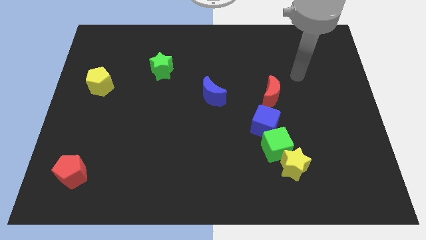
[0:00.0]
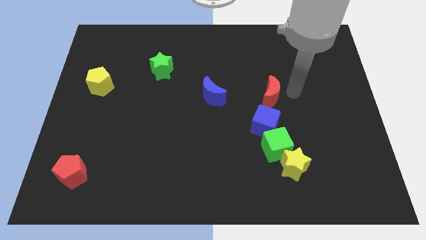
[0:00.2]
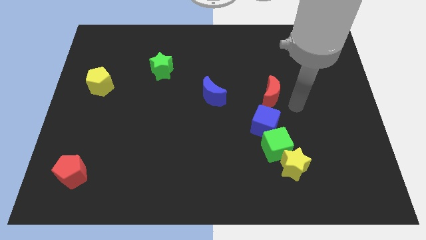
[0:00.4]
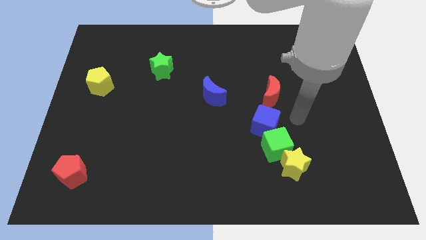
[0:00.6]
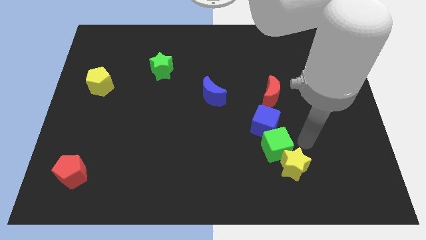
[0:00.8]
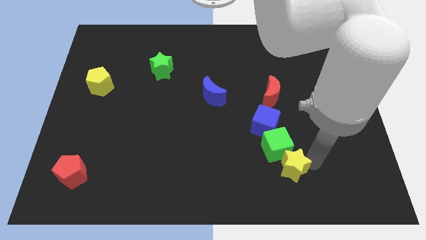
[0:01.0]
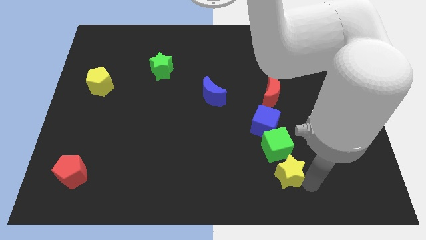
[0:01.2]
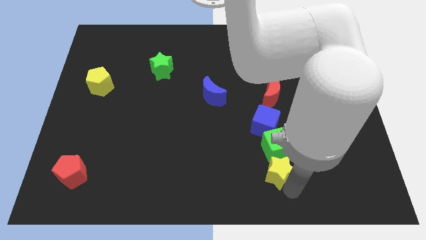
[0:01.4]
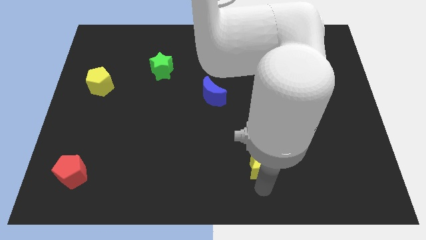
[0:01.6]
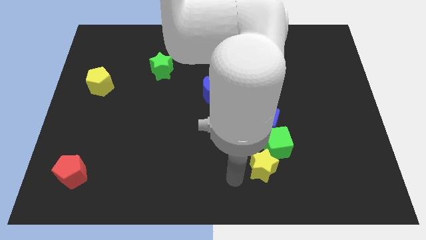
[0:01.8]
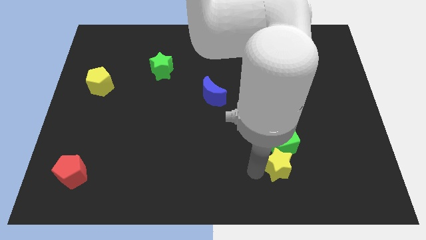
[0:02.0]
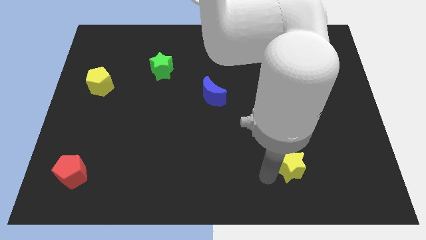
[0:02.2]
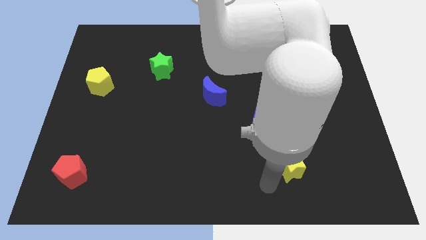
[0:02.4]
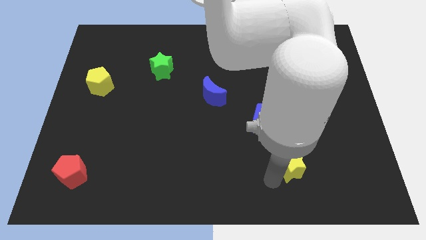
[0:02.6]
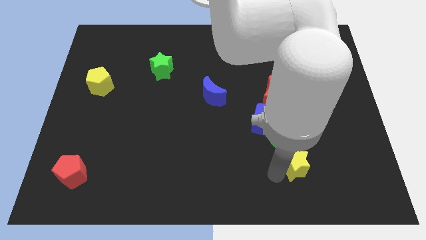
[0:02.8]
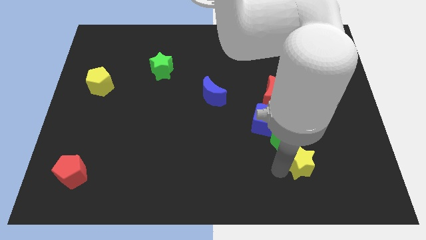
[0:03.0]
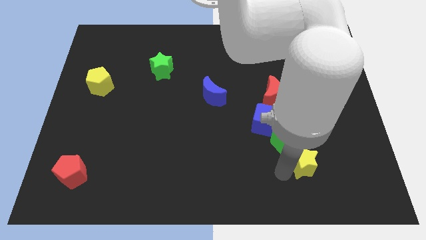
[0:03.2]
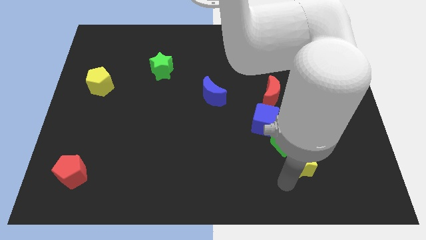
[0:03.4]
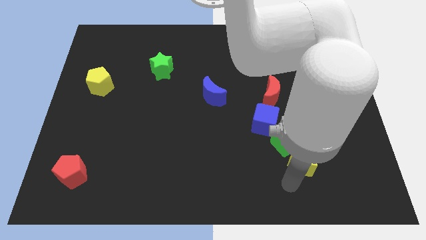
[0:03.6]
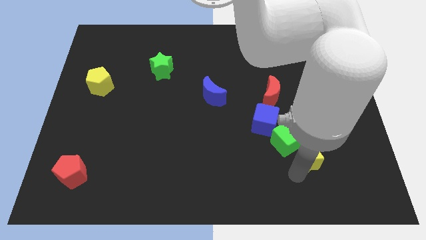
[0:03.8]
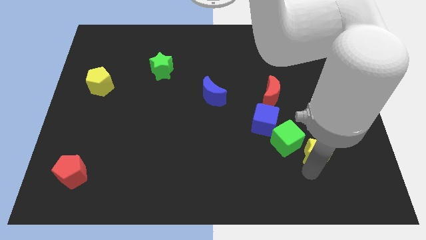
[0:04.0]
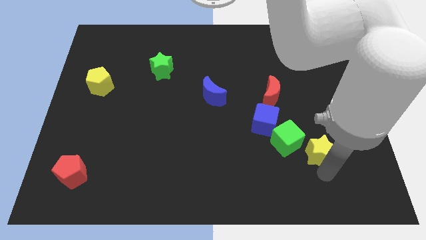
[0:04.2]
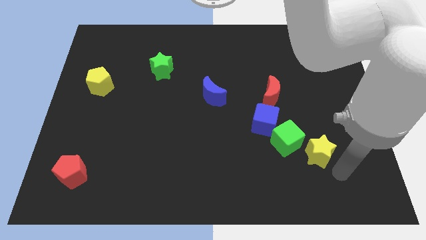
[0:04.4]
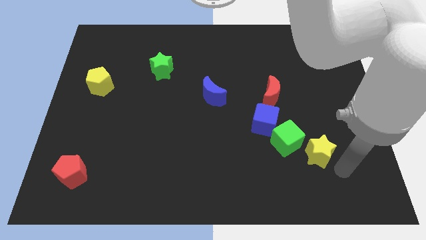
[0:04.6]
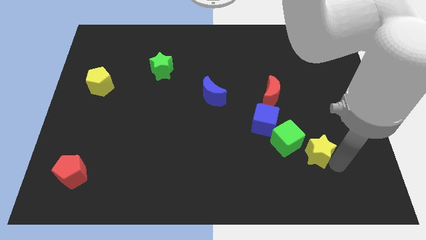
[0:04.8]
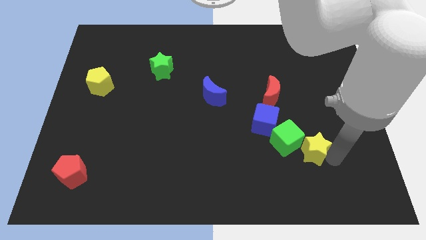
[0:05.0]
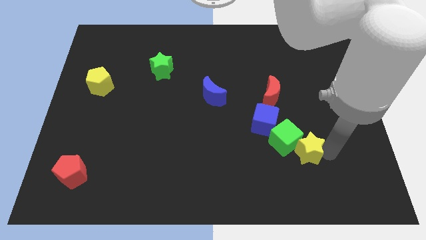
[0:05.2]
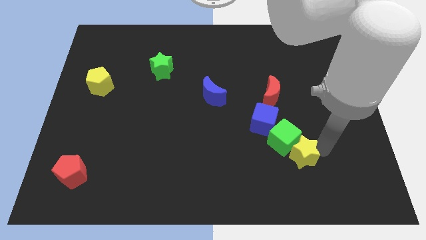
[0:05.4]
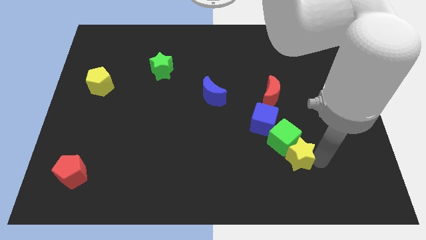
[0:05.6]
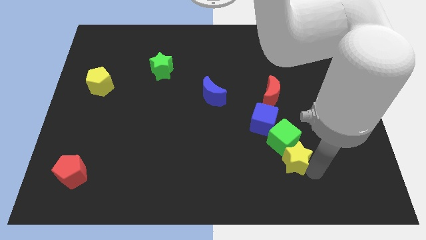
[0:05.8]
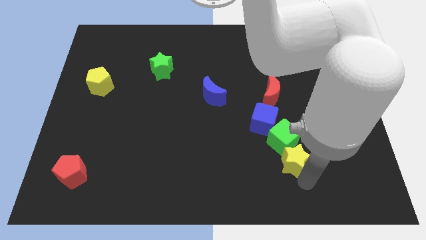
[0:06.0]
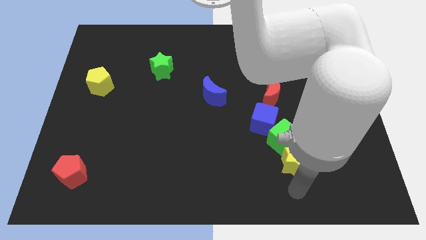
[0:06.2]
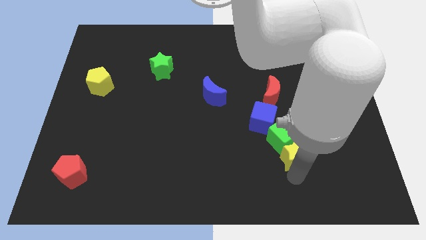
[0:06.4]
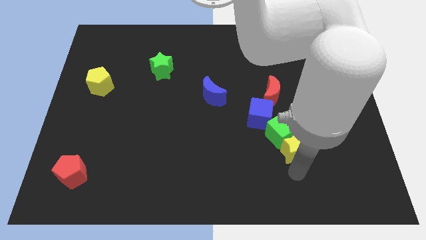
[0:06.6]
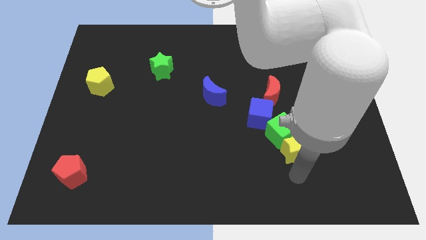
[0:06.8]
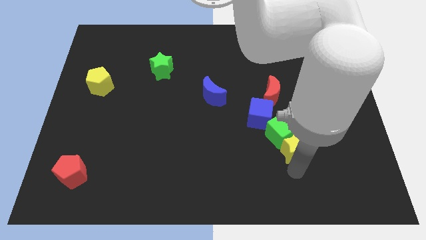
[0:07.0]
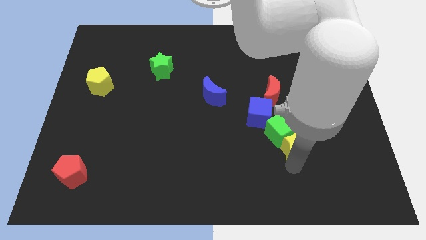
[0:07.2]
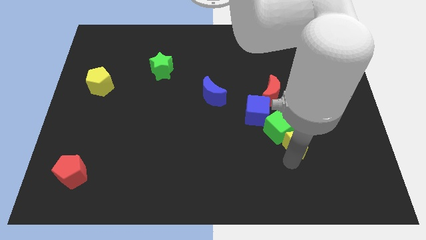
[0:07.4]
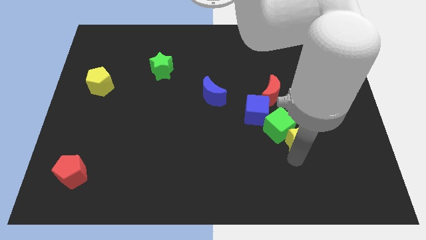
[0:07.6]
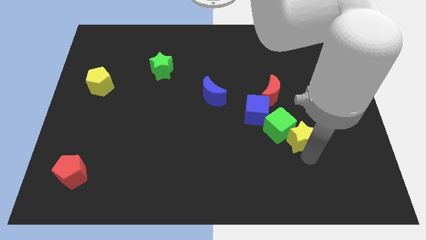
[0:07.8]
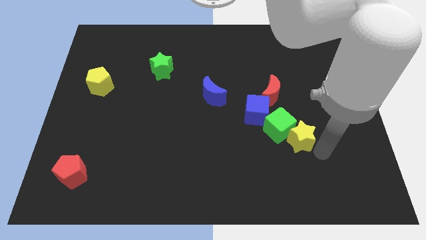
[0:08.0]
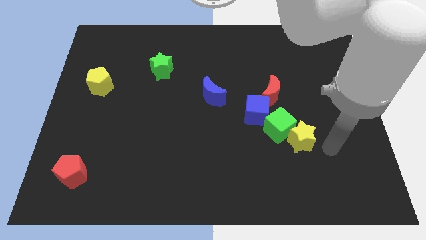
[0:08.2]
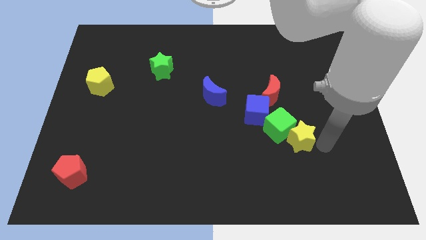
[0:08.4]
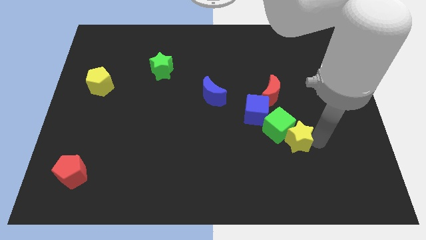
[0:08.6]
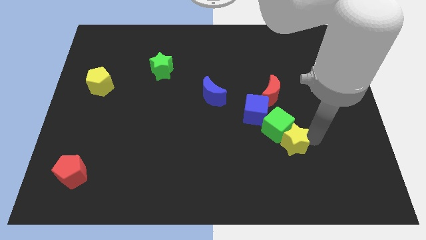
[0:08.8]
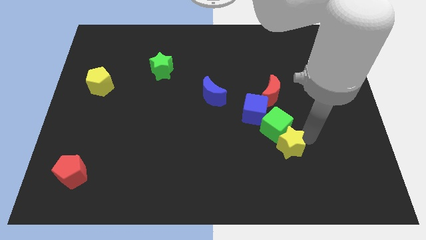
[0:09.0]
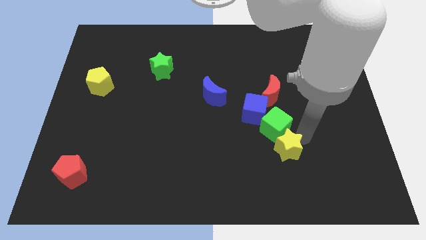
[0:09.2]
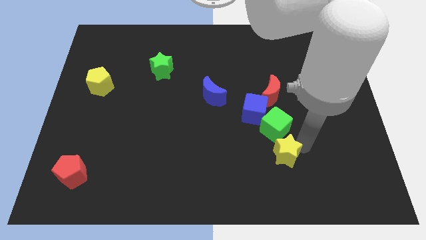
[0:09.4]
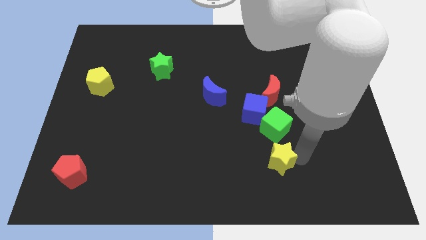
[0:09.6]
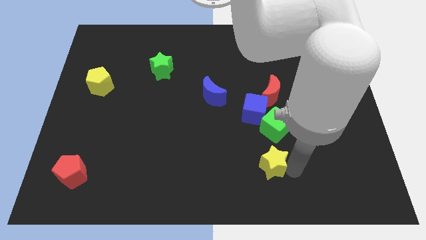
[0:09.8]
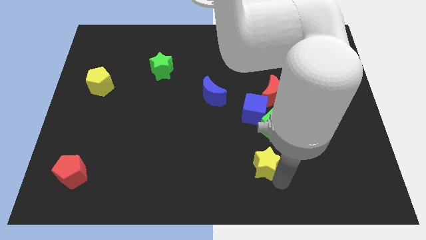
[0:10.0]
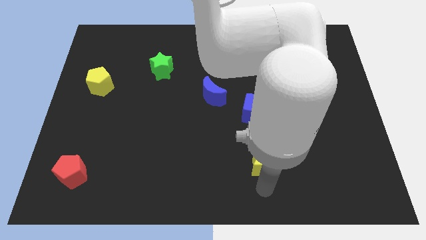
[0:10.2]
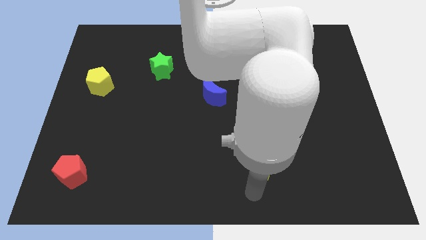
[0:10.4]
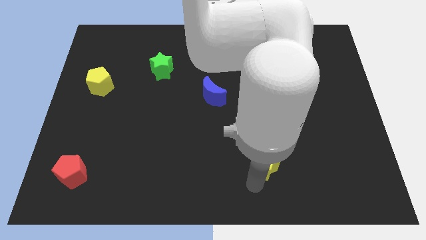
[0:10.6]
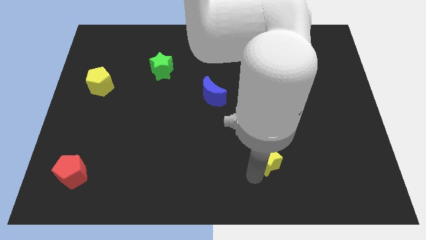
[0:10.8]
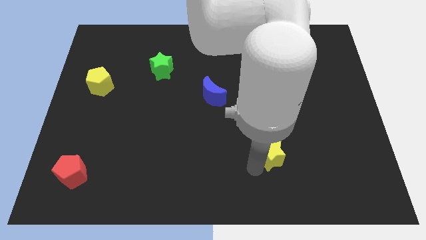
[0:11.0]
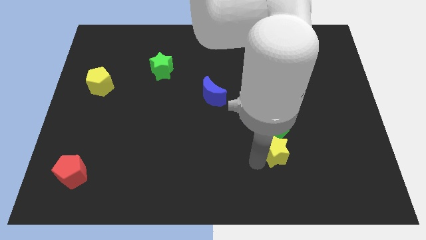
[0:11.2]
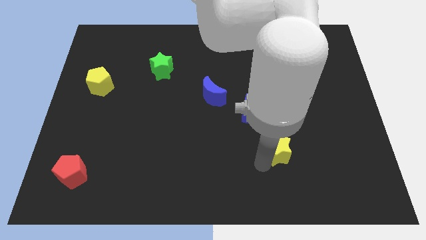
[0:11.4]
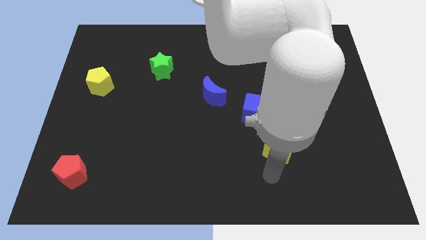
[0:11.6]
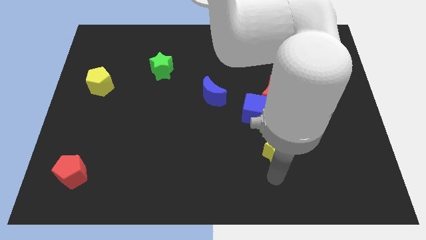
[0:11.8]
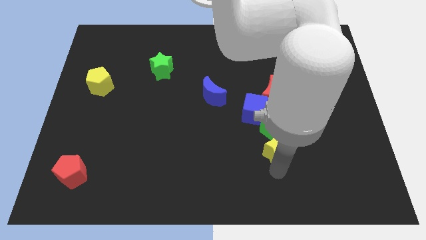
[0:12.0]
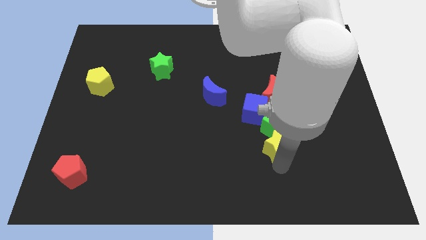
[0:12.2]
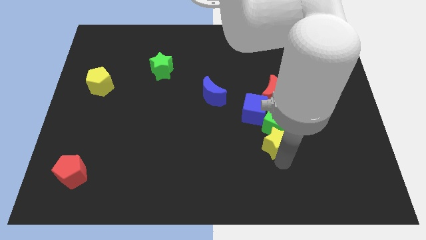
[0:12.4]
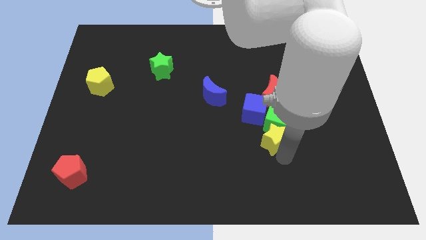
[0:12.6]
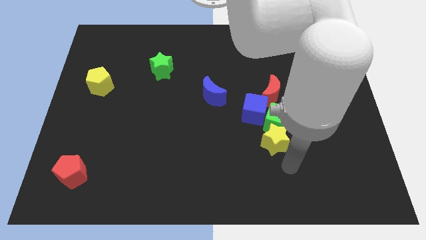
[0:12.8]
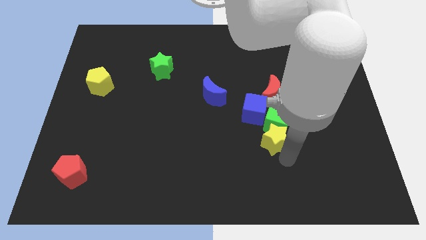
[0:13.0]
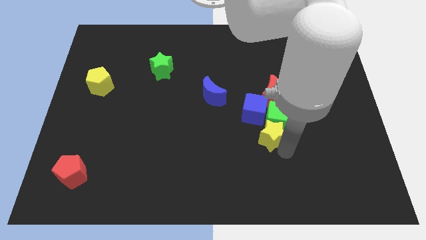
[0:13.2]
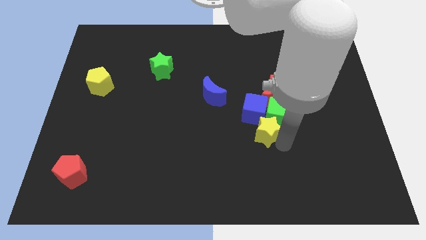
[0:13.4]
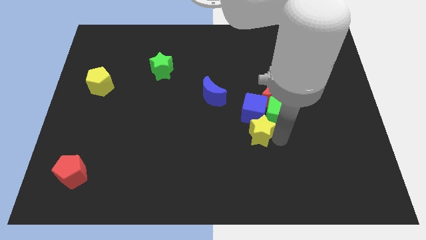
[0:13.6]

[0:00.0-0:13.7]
move the yellow star next to the blue cube

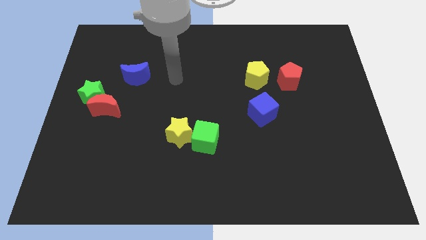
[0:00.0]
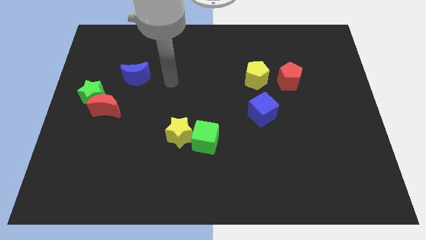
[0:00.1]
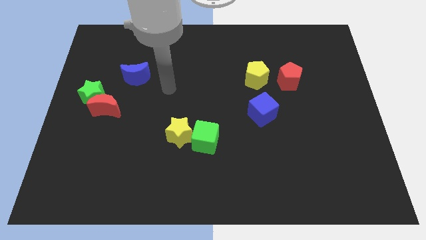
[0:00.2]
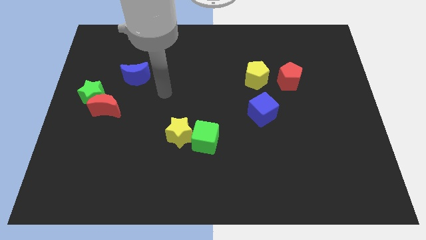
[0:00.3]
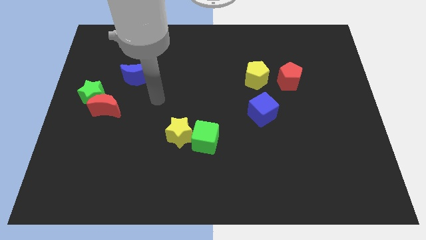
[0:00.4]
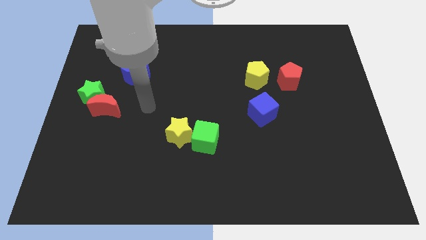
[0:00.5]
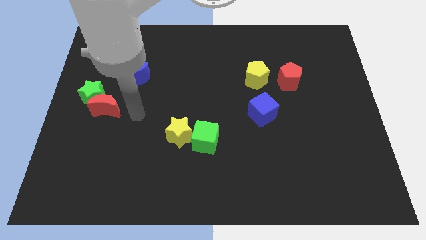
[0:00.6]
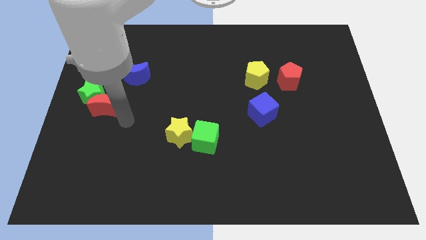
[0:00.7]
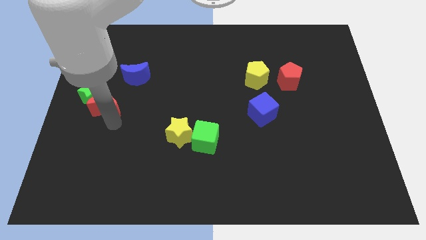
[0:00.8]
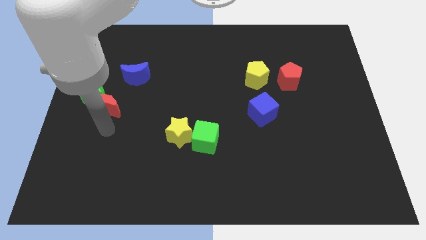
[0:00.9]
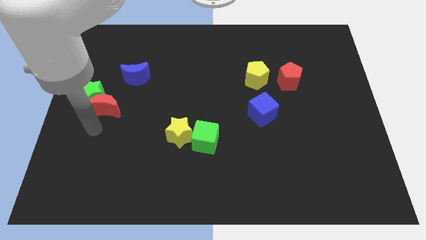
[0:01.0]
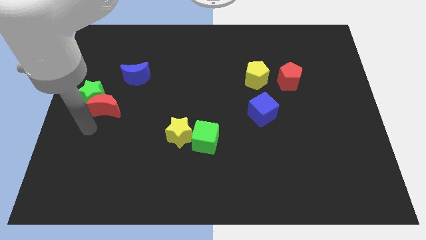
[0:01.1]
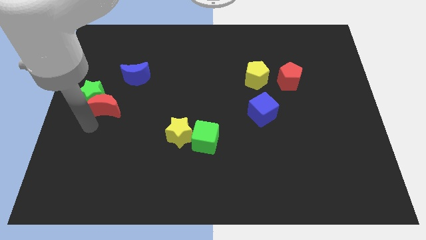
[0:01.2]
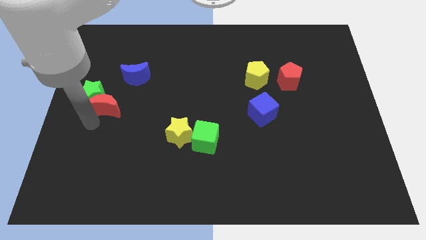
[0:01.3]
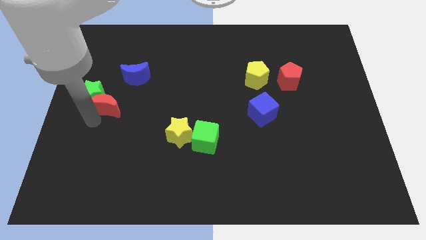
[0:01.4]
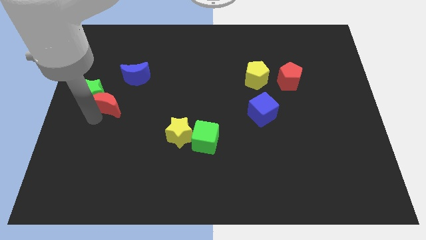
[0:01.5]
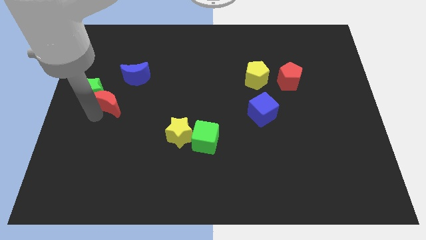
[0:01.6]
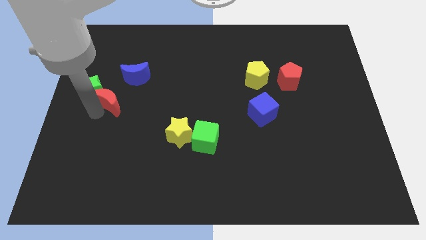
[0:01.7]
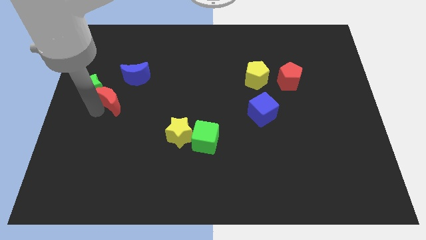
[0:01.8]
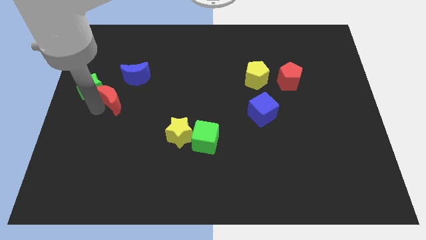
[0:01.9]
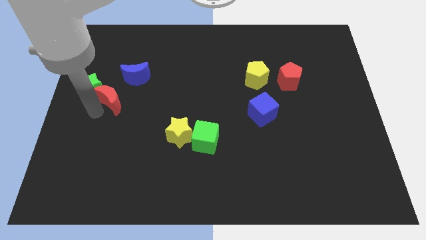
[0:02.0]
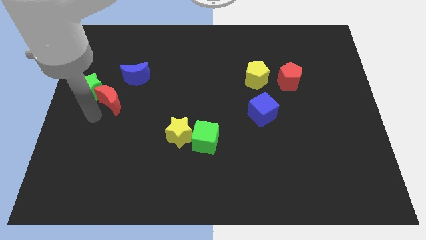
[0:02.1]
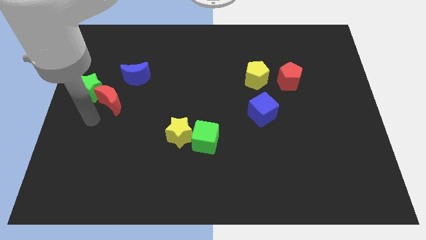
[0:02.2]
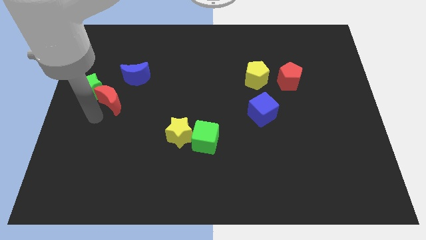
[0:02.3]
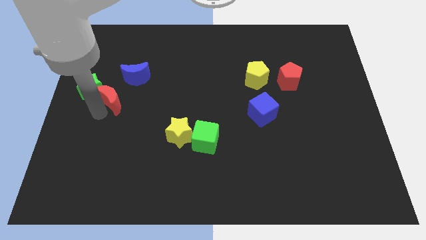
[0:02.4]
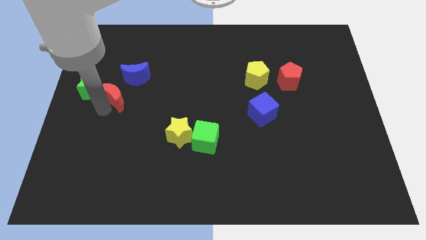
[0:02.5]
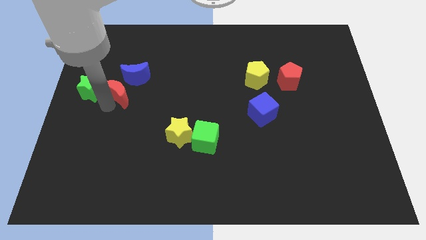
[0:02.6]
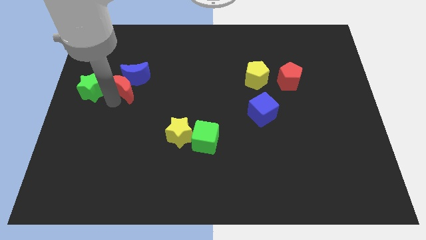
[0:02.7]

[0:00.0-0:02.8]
move the red moon to the blue moon
